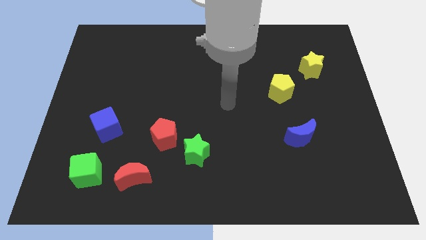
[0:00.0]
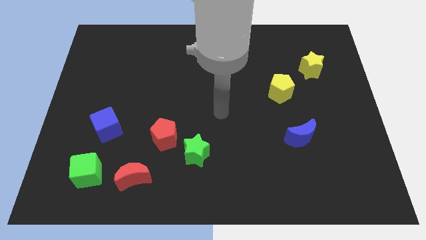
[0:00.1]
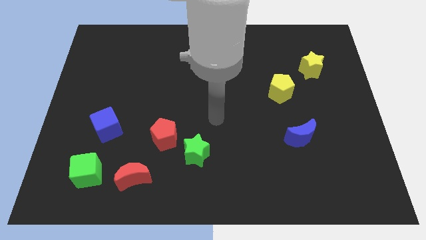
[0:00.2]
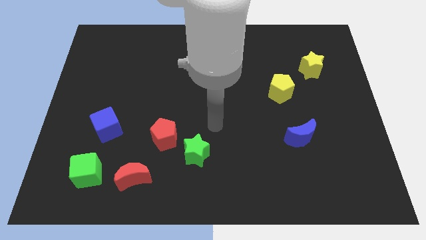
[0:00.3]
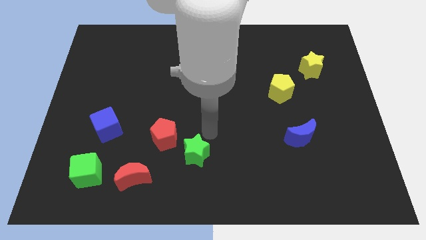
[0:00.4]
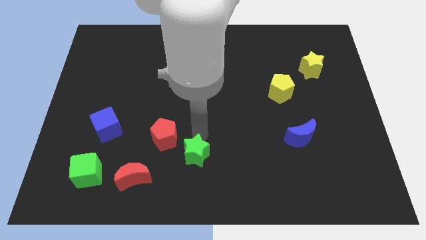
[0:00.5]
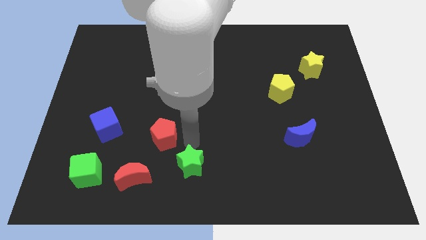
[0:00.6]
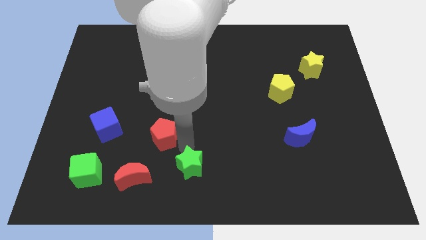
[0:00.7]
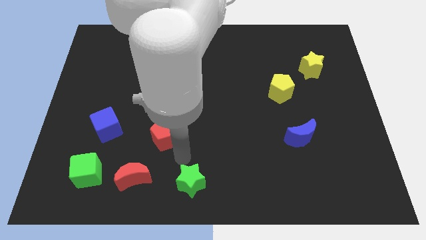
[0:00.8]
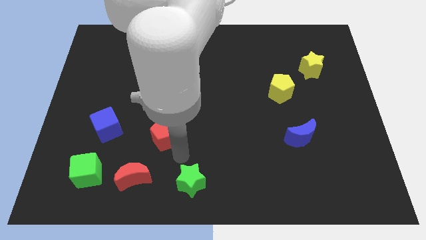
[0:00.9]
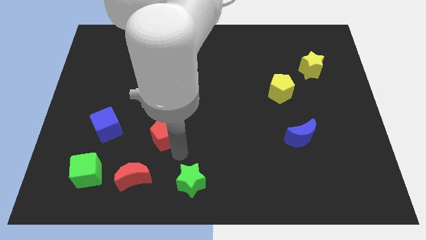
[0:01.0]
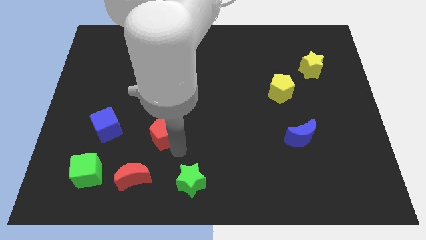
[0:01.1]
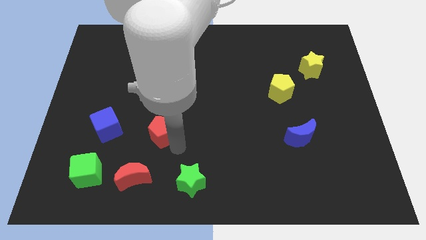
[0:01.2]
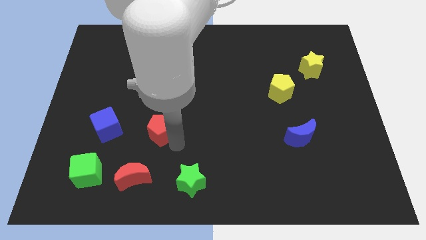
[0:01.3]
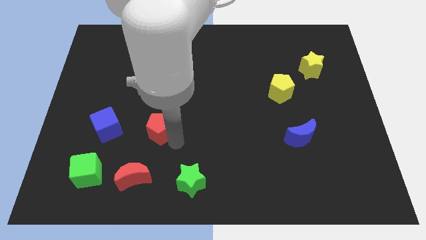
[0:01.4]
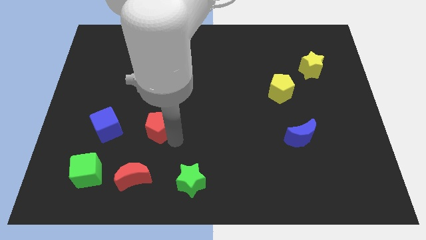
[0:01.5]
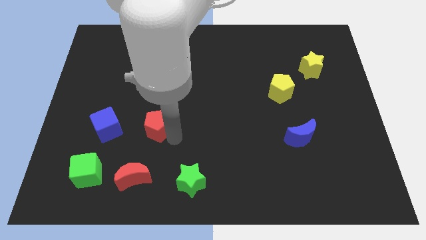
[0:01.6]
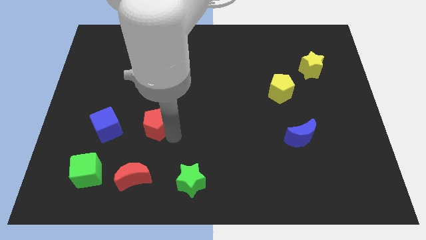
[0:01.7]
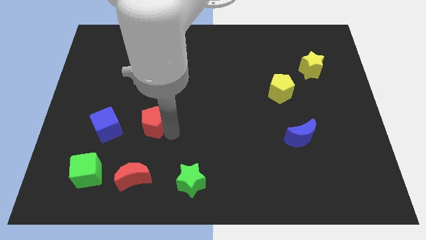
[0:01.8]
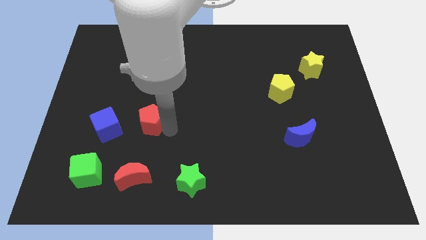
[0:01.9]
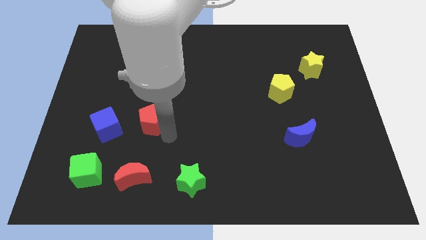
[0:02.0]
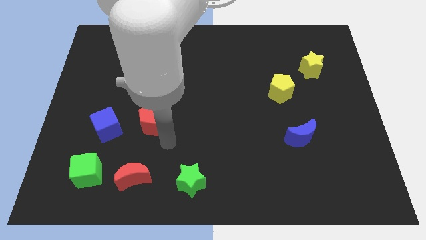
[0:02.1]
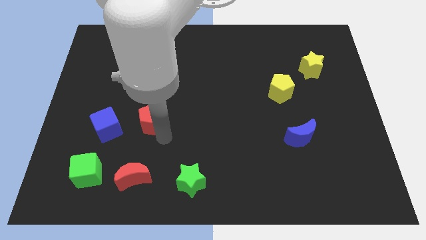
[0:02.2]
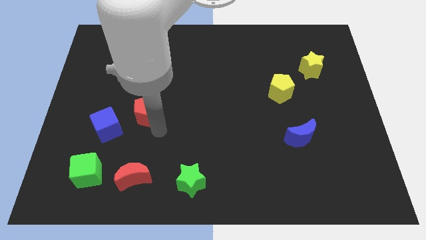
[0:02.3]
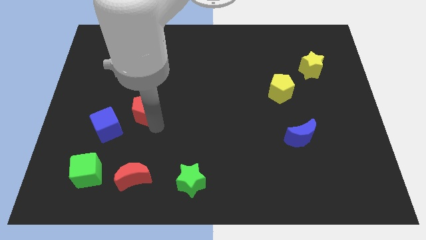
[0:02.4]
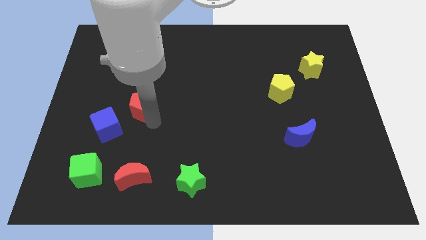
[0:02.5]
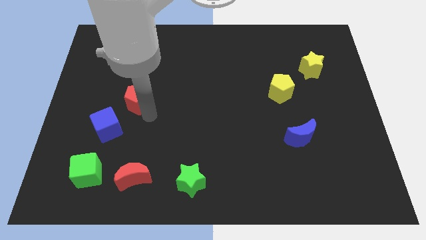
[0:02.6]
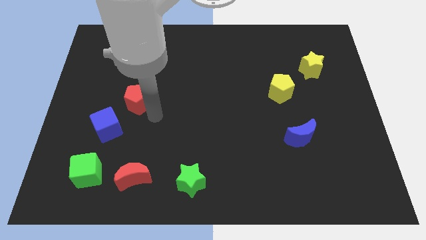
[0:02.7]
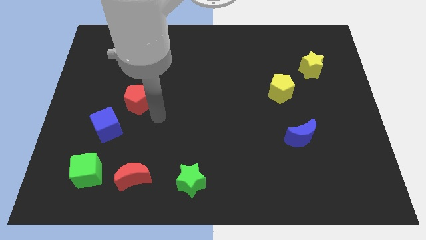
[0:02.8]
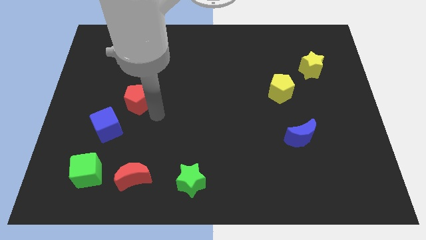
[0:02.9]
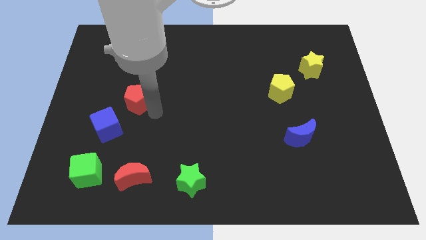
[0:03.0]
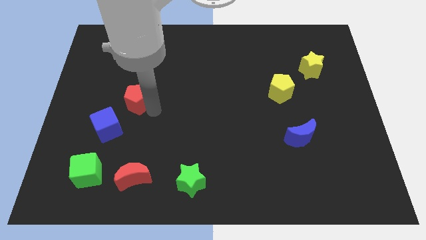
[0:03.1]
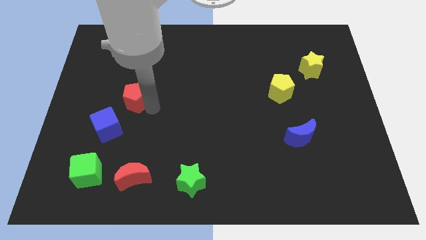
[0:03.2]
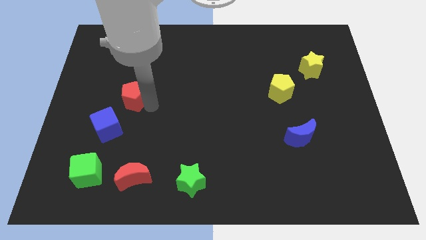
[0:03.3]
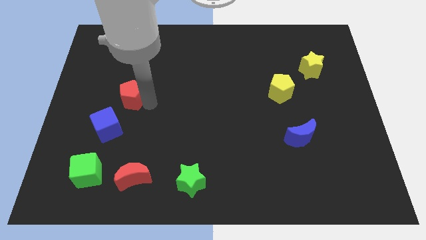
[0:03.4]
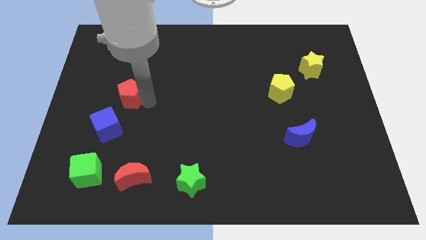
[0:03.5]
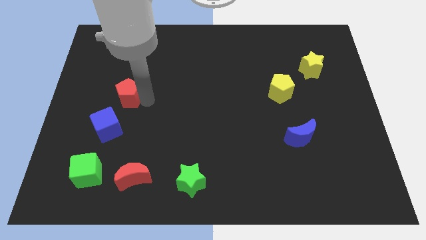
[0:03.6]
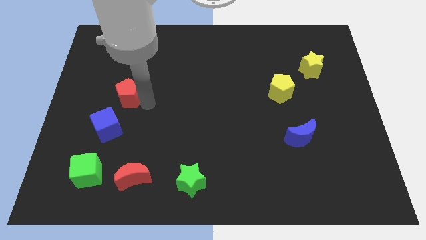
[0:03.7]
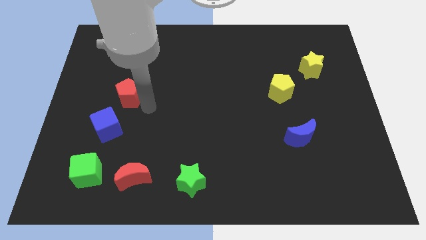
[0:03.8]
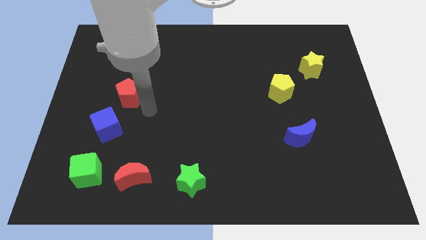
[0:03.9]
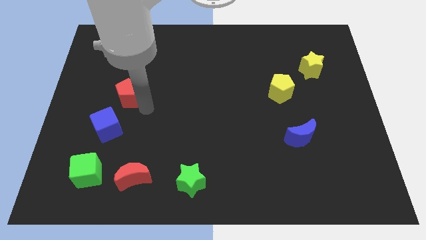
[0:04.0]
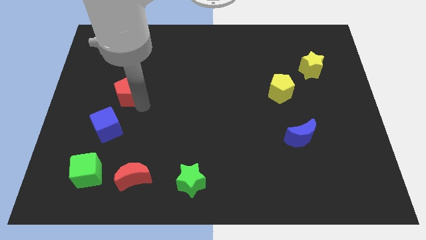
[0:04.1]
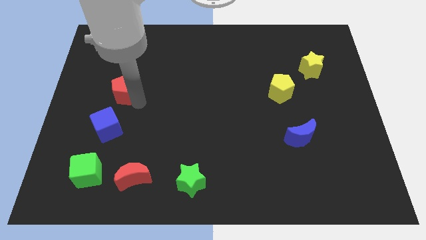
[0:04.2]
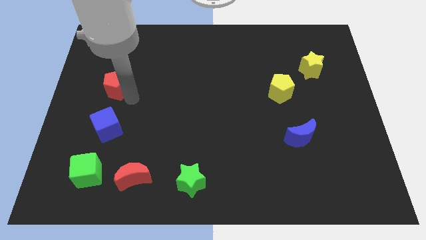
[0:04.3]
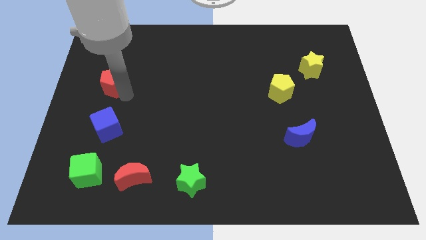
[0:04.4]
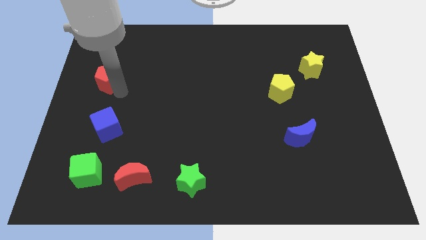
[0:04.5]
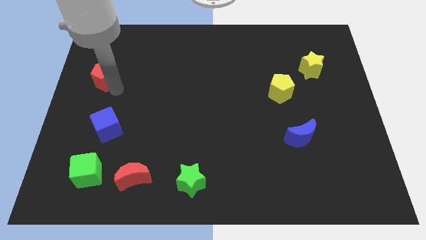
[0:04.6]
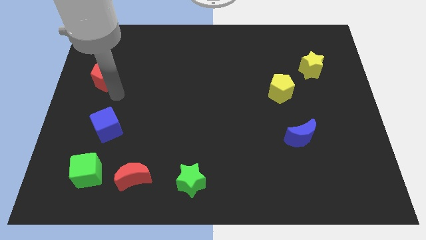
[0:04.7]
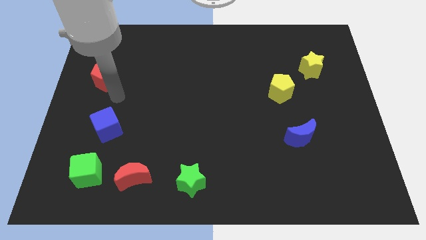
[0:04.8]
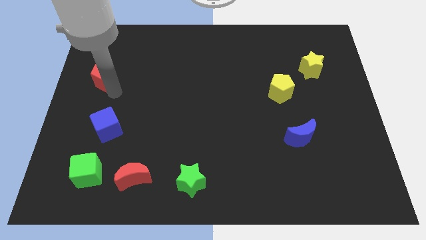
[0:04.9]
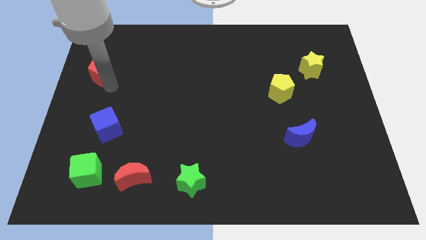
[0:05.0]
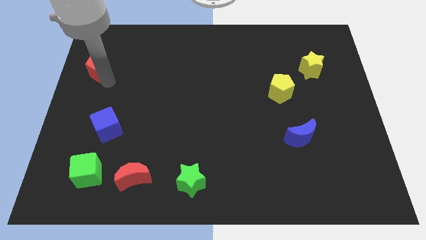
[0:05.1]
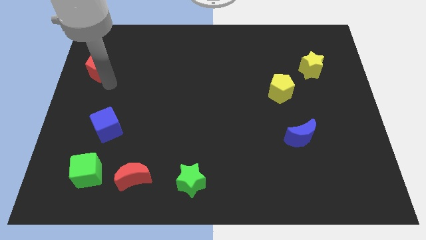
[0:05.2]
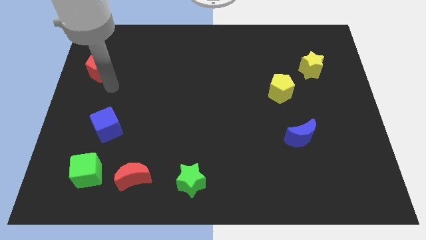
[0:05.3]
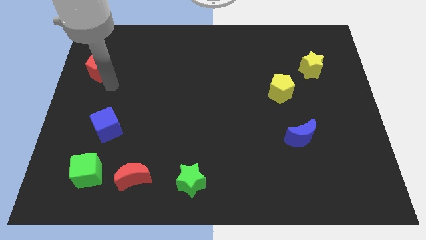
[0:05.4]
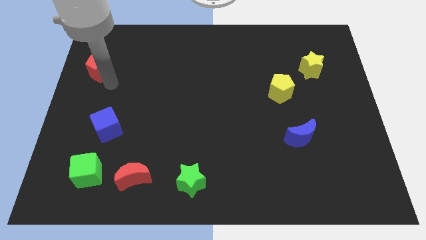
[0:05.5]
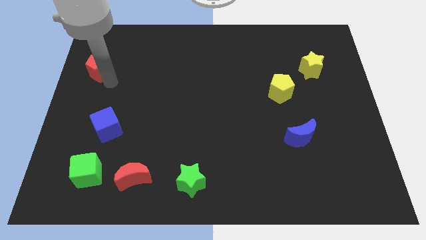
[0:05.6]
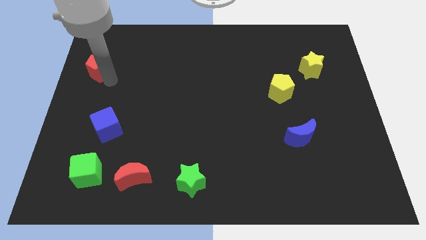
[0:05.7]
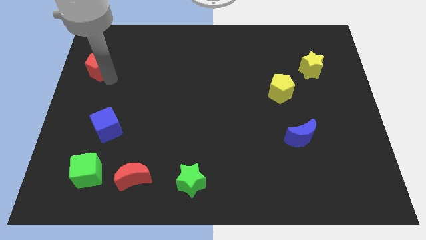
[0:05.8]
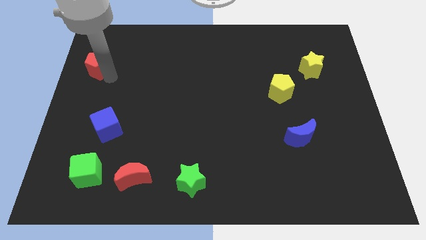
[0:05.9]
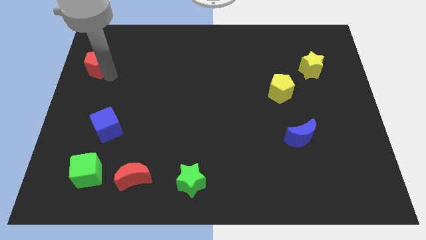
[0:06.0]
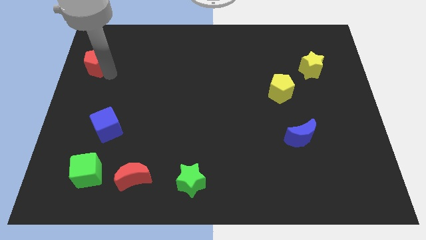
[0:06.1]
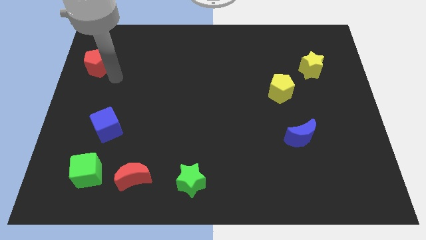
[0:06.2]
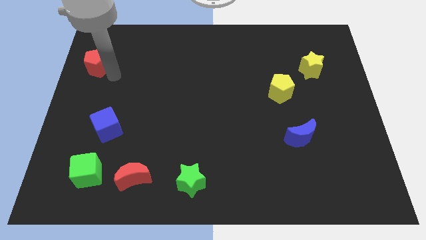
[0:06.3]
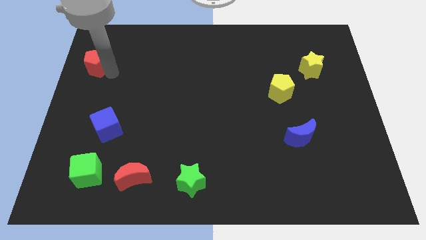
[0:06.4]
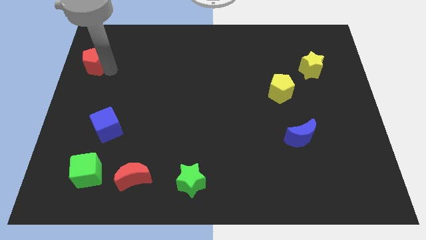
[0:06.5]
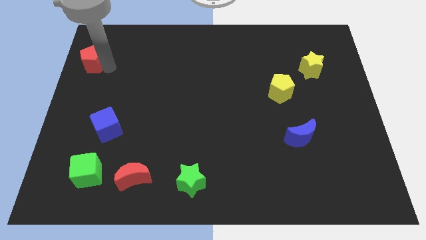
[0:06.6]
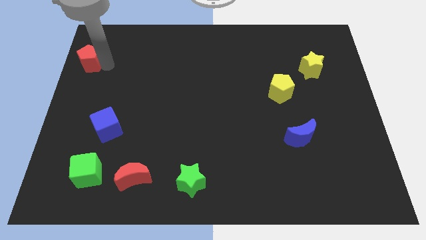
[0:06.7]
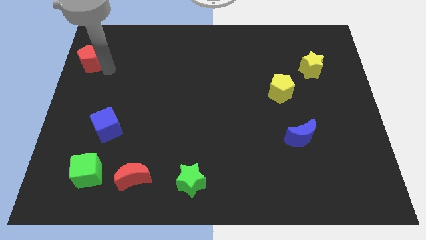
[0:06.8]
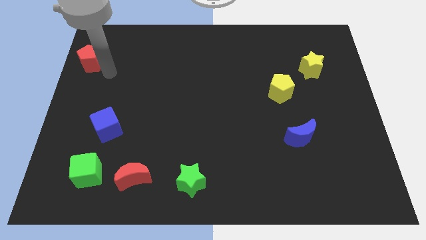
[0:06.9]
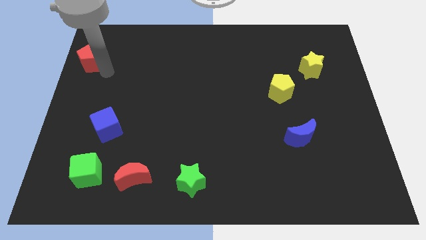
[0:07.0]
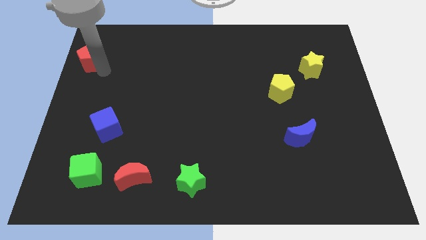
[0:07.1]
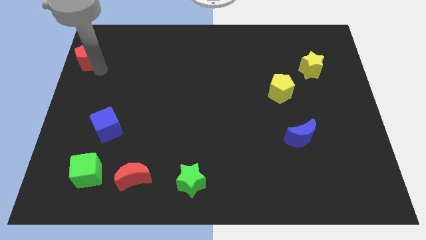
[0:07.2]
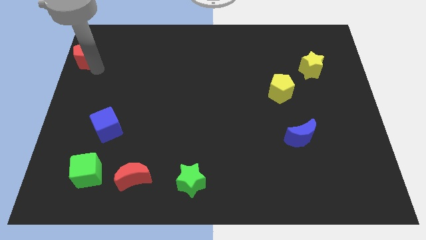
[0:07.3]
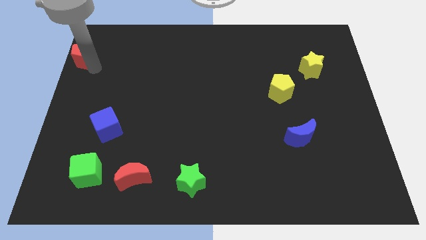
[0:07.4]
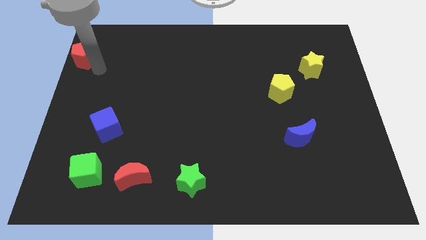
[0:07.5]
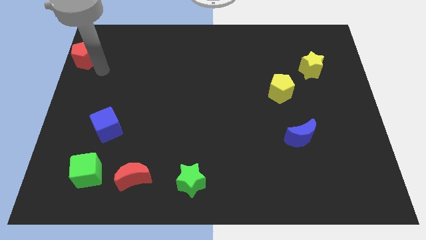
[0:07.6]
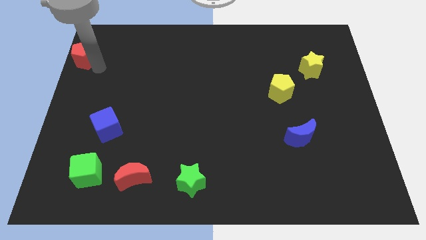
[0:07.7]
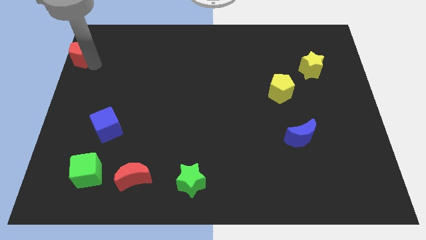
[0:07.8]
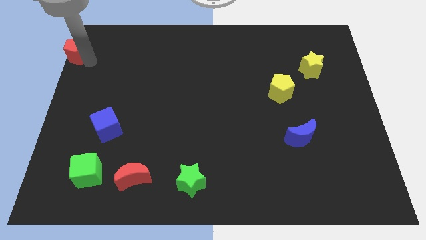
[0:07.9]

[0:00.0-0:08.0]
put the red pentagon to the upper left corner
